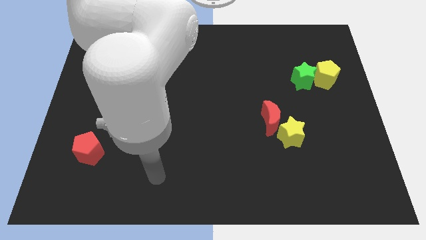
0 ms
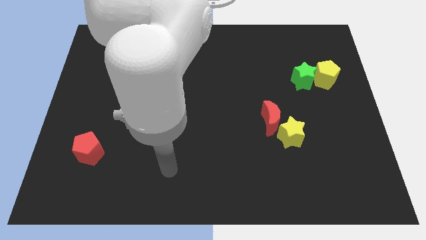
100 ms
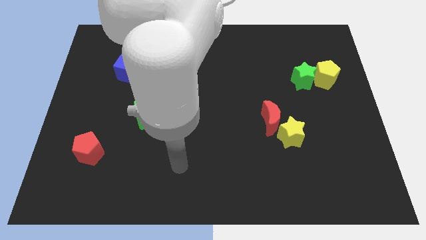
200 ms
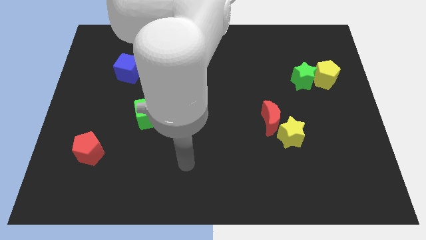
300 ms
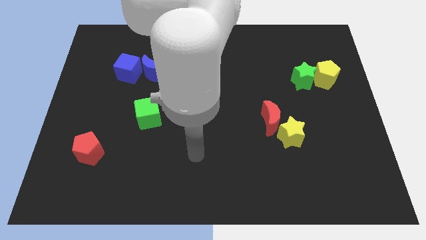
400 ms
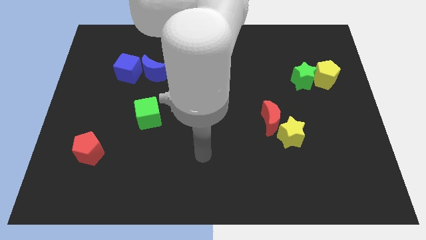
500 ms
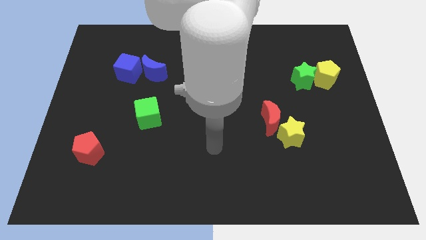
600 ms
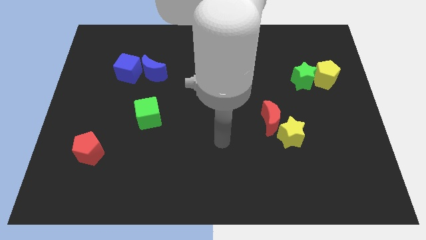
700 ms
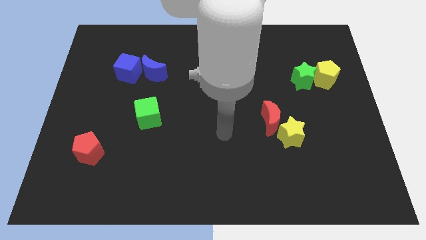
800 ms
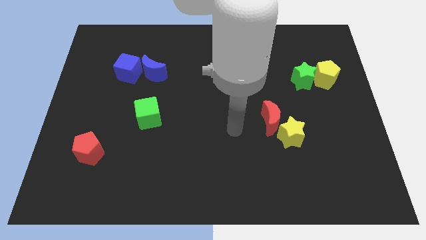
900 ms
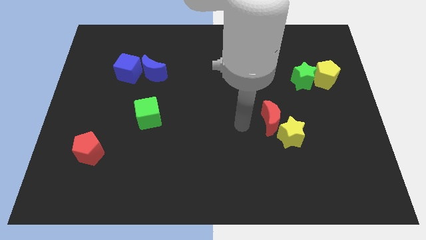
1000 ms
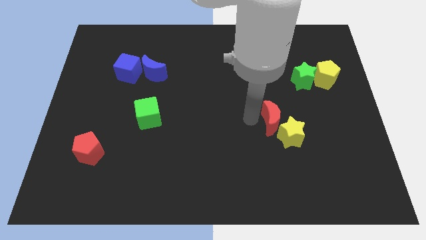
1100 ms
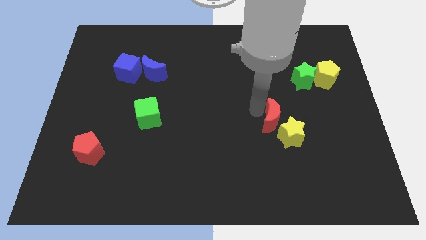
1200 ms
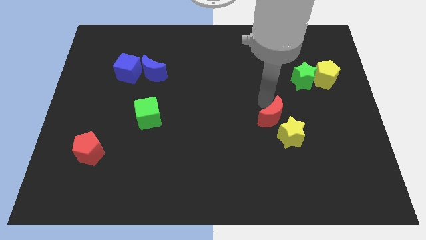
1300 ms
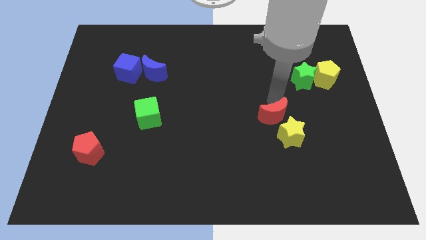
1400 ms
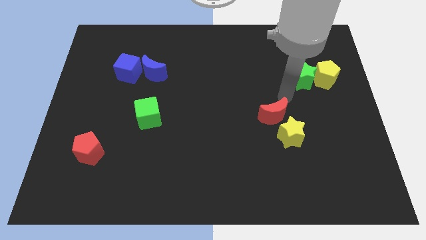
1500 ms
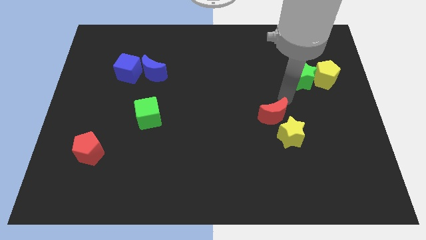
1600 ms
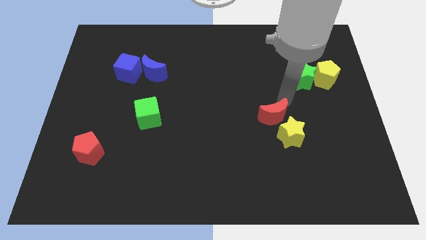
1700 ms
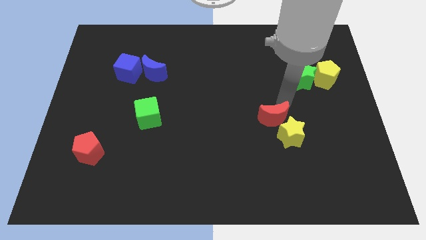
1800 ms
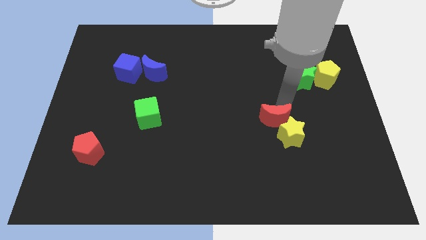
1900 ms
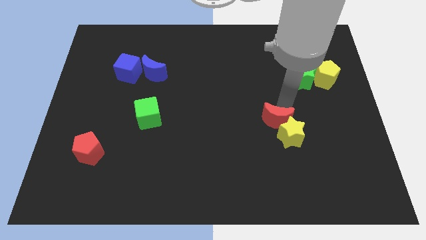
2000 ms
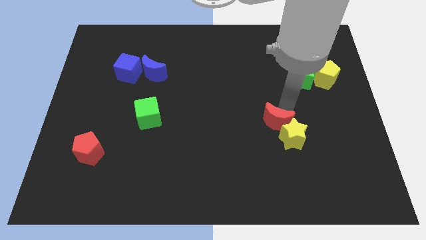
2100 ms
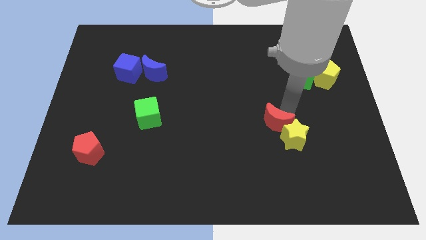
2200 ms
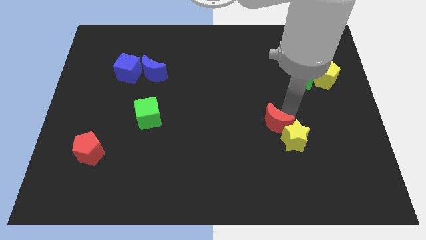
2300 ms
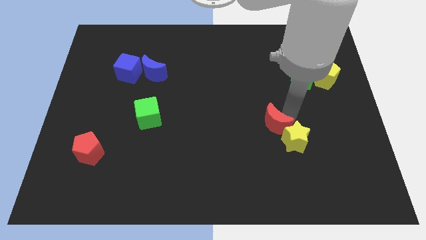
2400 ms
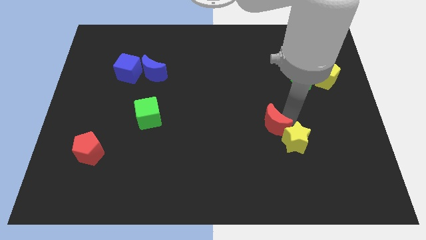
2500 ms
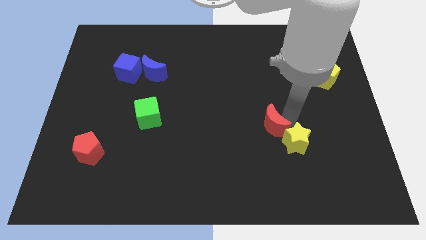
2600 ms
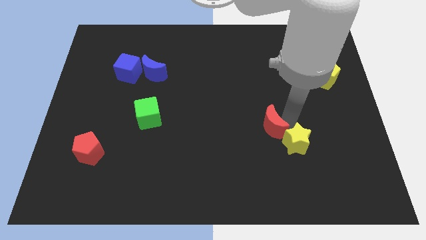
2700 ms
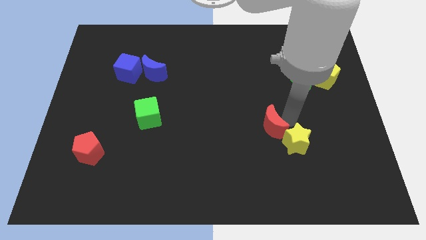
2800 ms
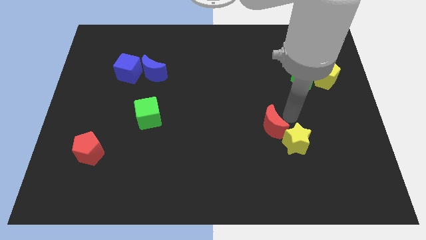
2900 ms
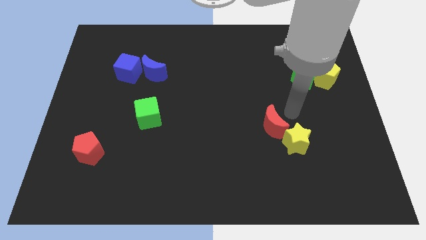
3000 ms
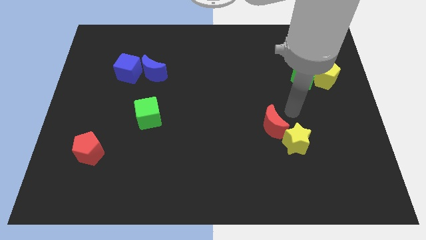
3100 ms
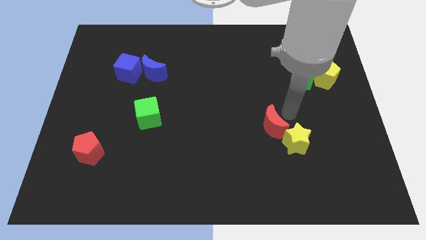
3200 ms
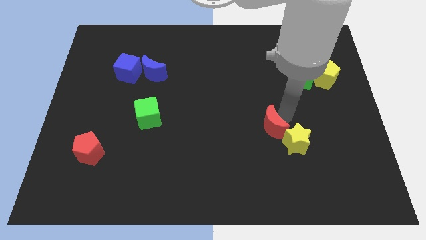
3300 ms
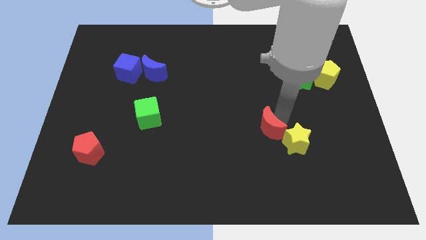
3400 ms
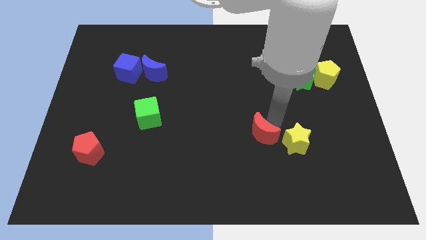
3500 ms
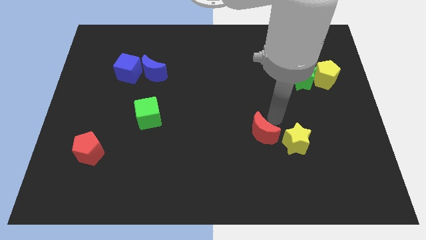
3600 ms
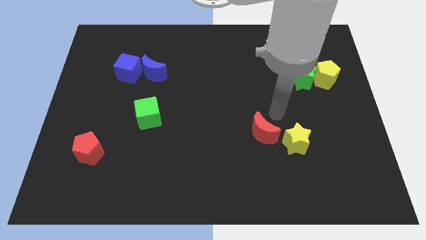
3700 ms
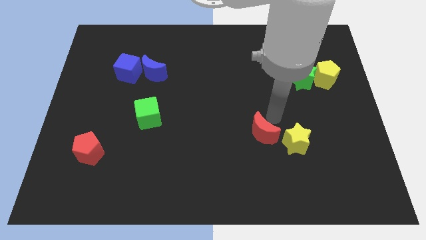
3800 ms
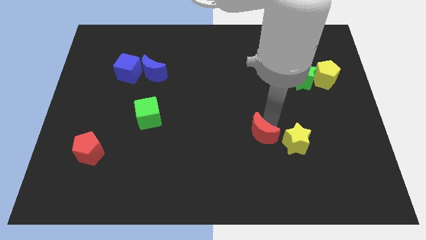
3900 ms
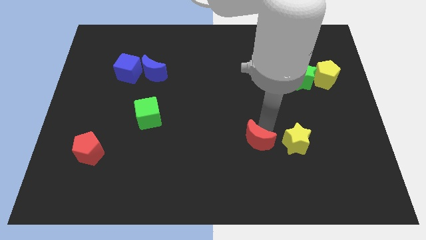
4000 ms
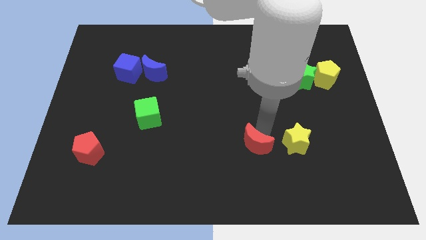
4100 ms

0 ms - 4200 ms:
slightly slide the red moon downwards and to the left

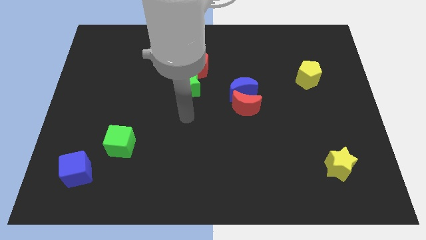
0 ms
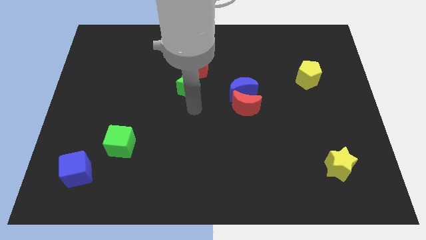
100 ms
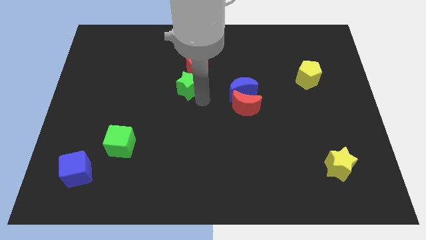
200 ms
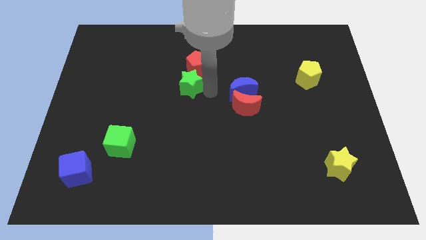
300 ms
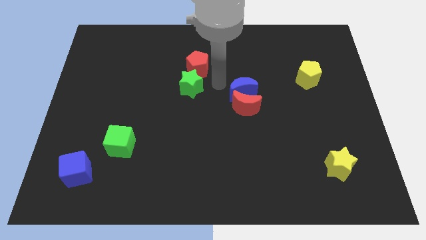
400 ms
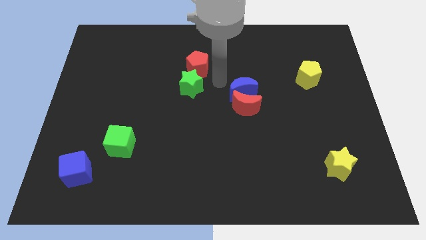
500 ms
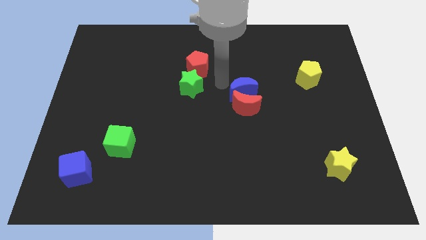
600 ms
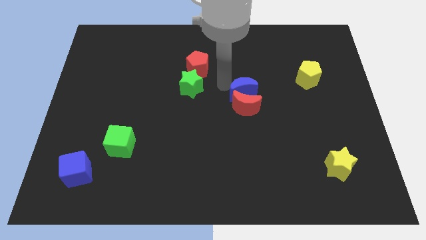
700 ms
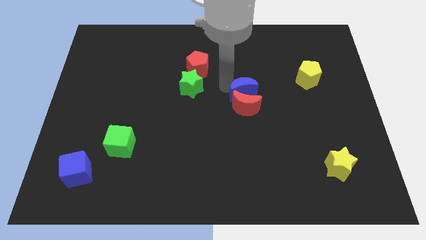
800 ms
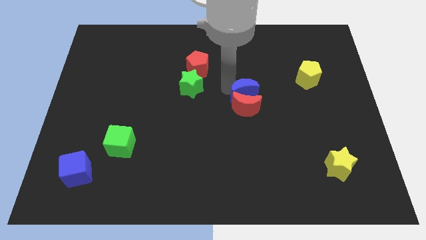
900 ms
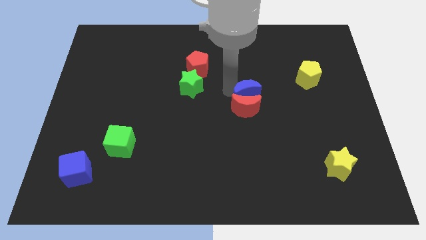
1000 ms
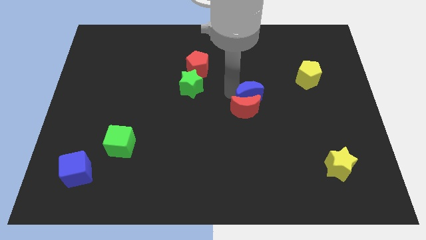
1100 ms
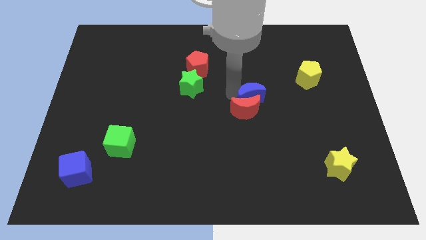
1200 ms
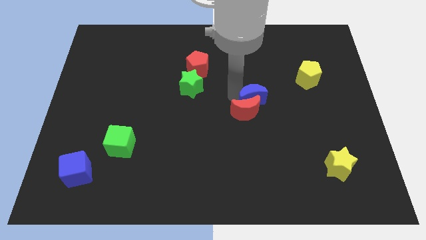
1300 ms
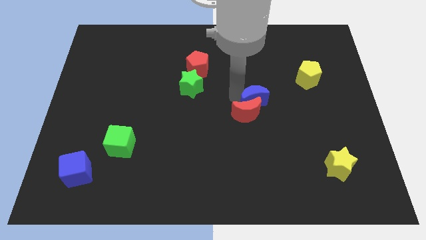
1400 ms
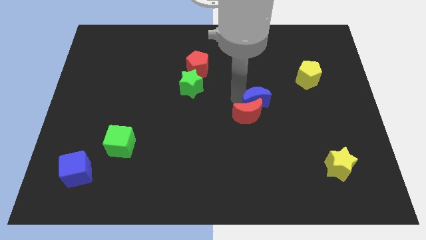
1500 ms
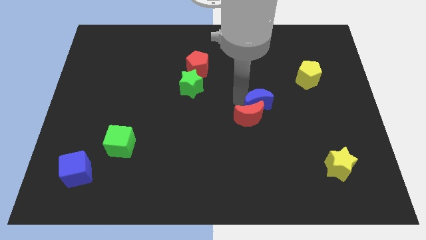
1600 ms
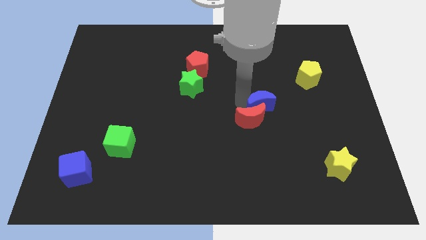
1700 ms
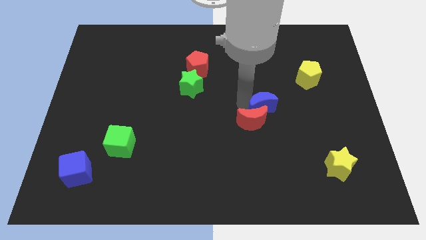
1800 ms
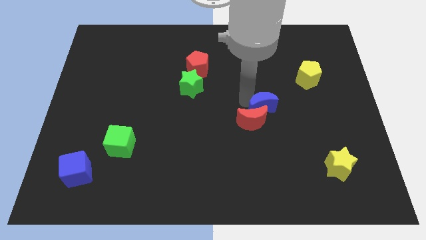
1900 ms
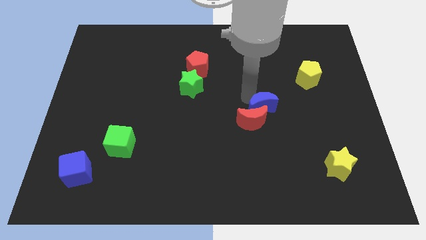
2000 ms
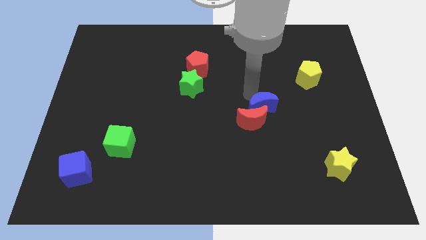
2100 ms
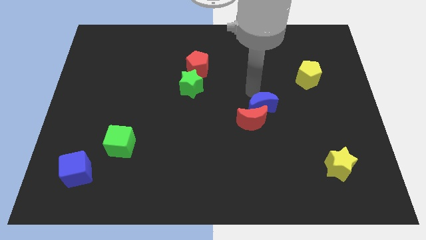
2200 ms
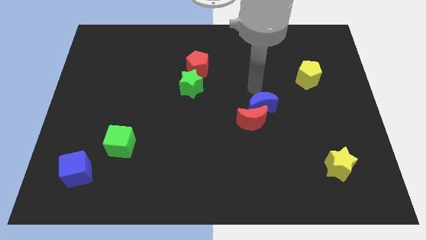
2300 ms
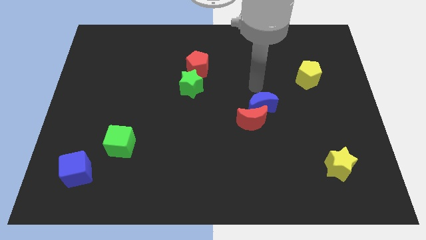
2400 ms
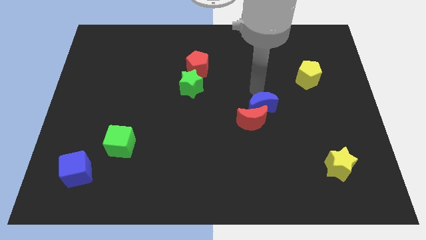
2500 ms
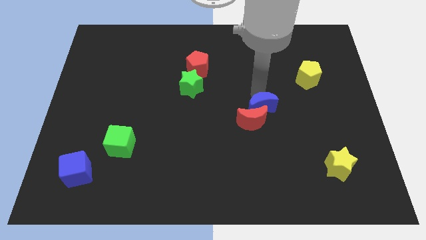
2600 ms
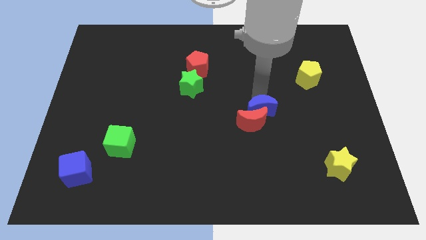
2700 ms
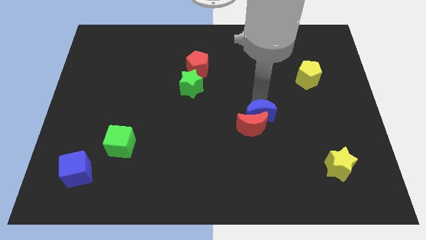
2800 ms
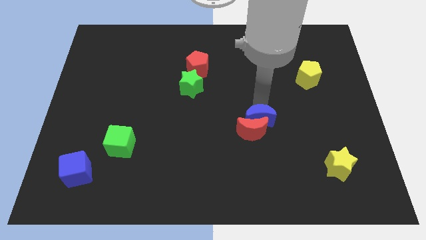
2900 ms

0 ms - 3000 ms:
slightly slide the blue moon down

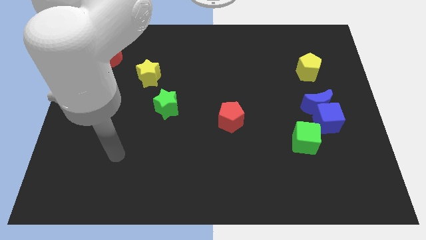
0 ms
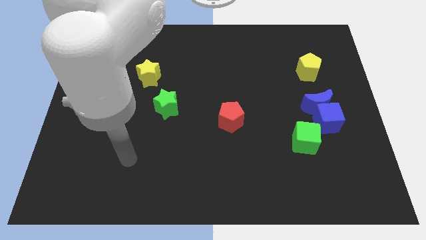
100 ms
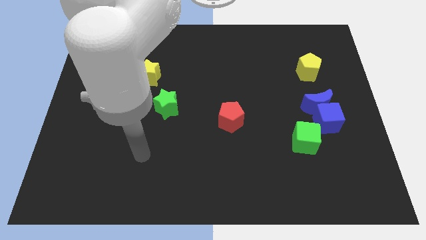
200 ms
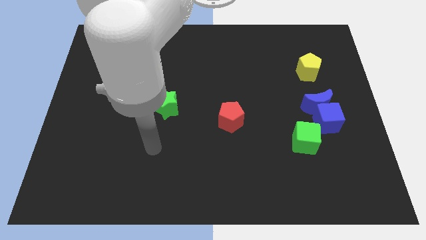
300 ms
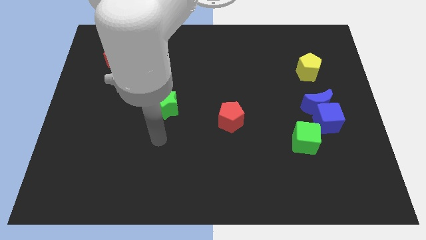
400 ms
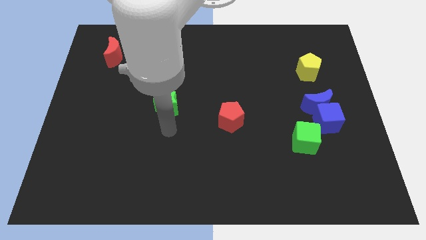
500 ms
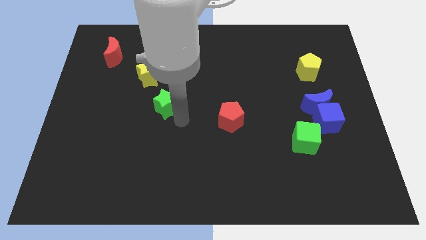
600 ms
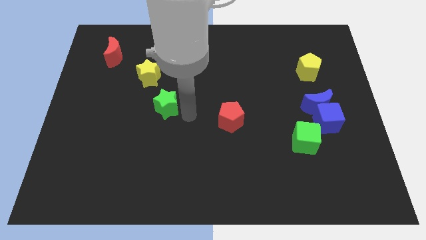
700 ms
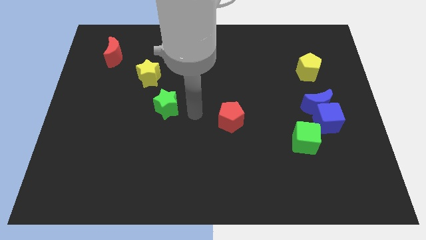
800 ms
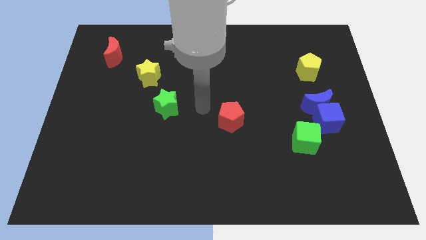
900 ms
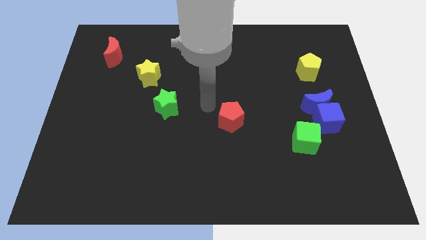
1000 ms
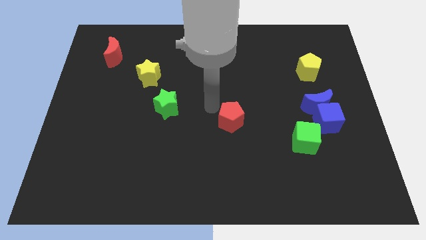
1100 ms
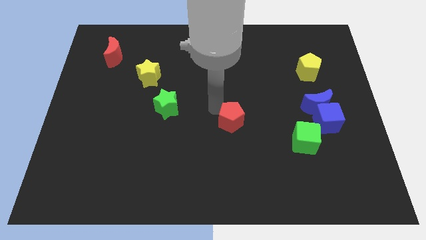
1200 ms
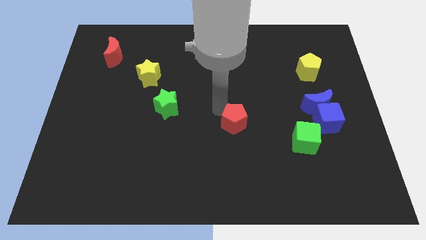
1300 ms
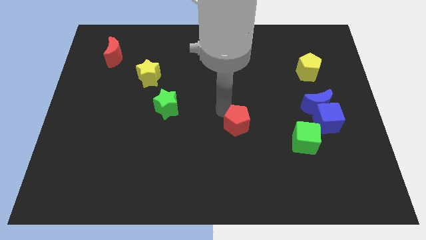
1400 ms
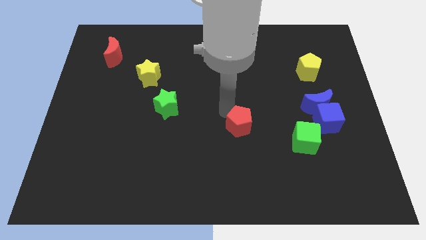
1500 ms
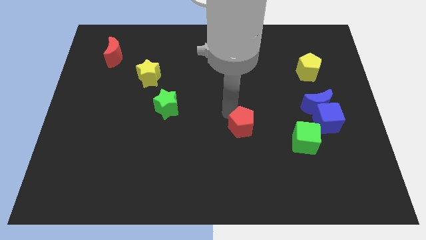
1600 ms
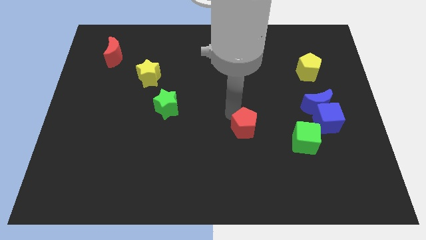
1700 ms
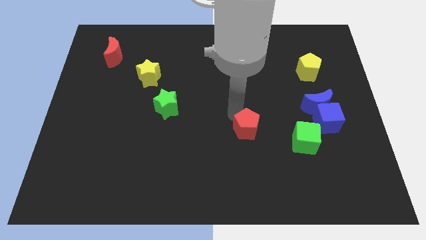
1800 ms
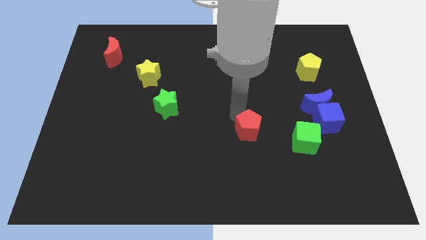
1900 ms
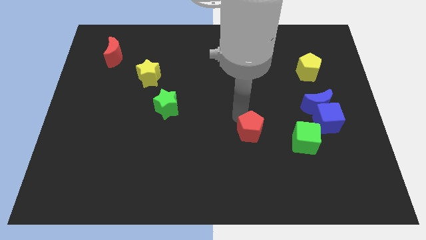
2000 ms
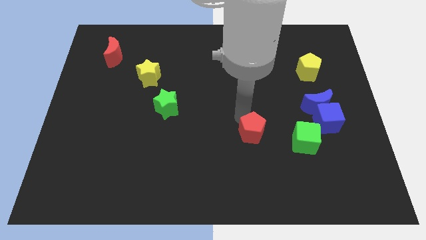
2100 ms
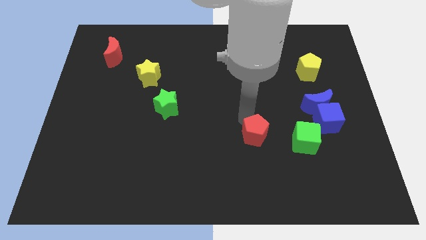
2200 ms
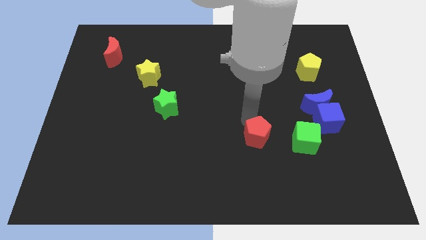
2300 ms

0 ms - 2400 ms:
push the red pentagon somewhat down and to the right
